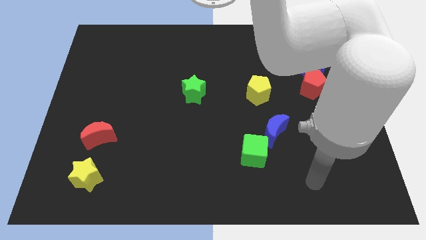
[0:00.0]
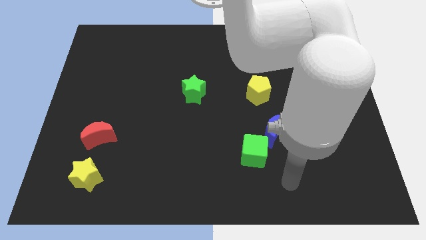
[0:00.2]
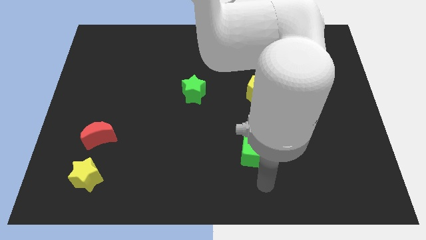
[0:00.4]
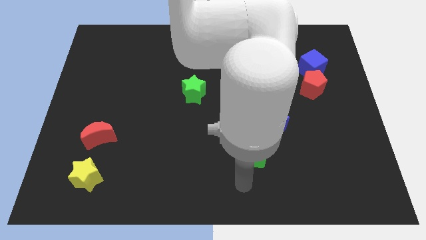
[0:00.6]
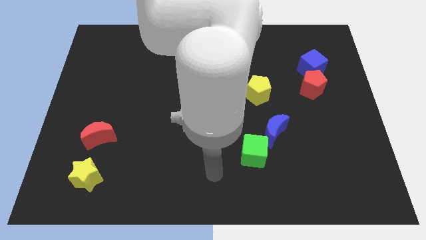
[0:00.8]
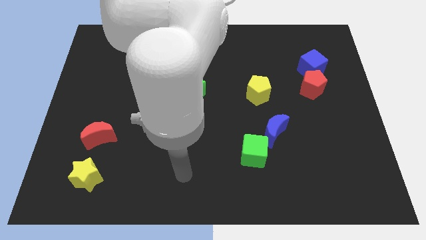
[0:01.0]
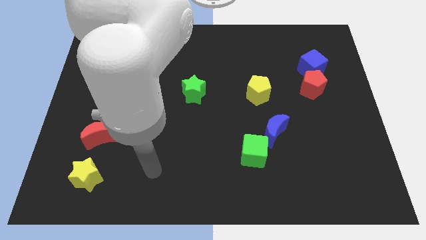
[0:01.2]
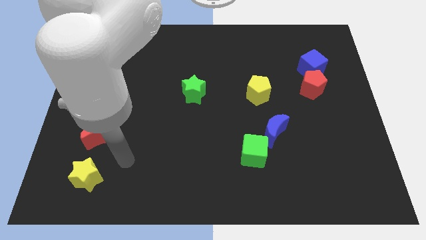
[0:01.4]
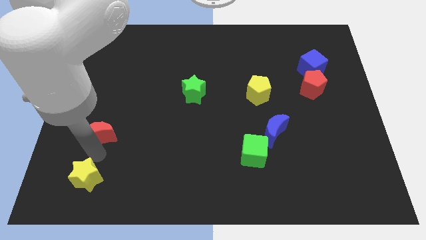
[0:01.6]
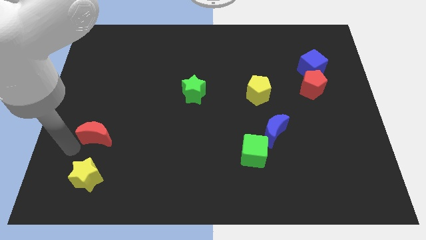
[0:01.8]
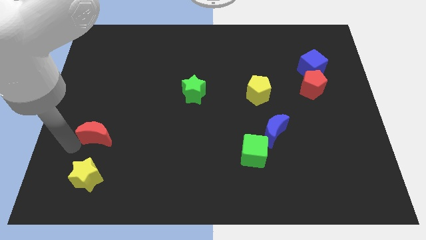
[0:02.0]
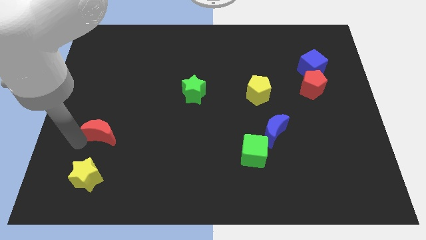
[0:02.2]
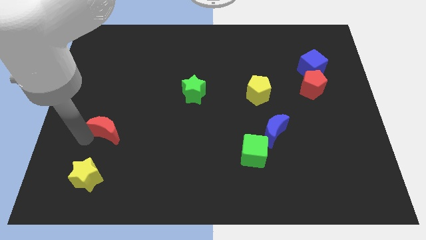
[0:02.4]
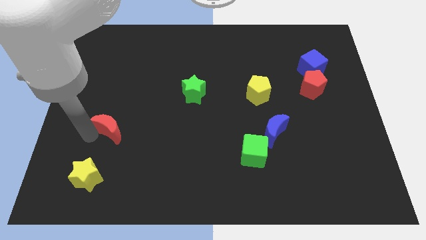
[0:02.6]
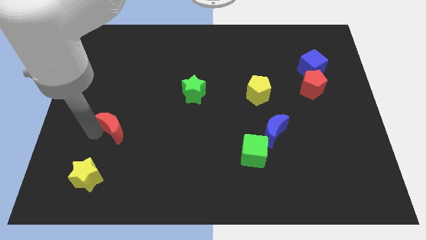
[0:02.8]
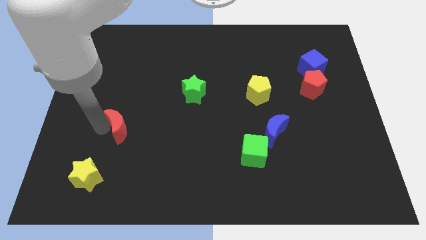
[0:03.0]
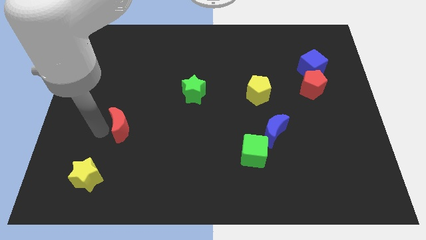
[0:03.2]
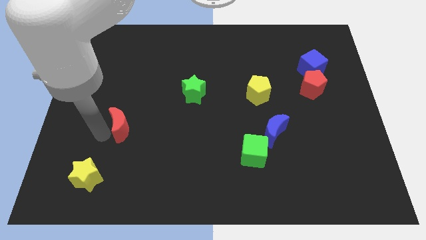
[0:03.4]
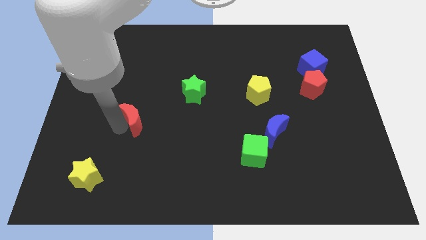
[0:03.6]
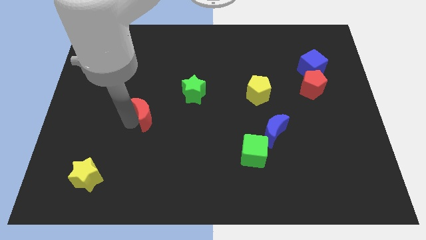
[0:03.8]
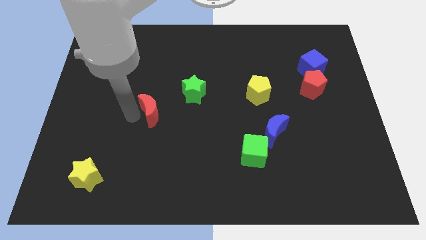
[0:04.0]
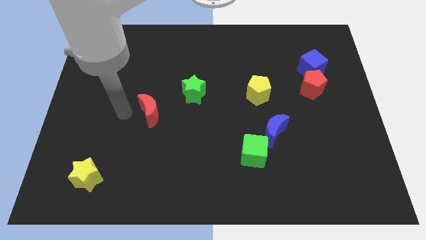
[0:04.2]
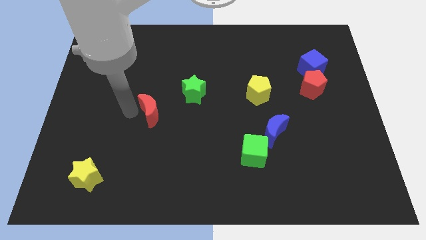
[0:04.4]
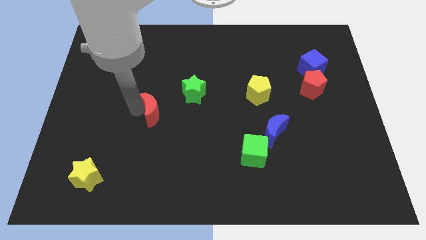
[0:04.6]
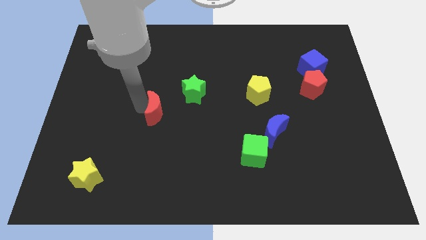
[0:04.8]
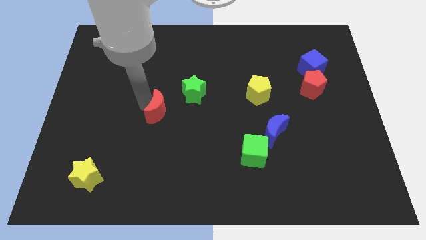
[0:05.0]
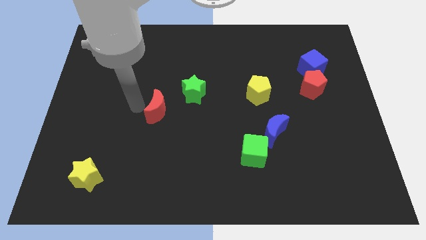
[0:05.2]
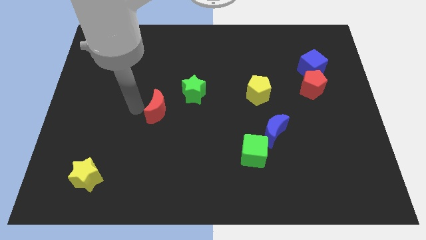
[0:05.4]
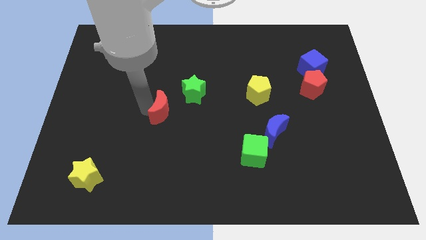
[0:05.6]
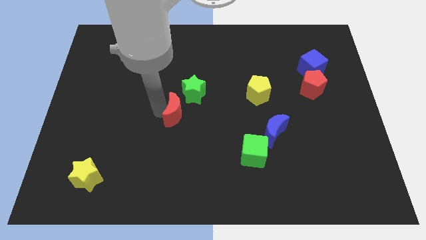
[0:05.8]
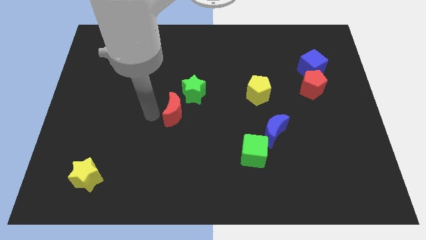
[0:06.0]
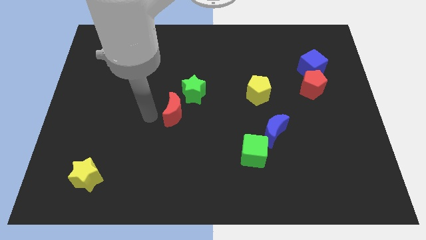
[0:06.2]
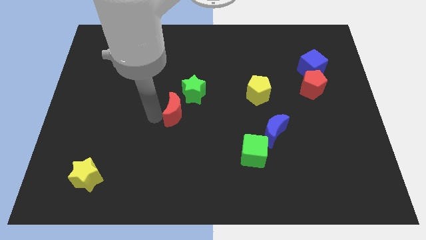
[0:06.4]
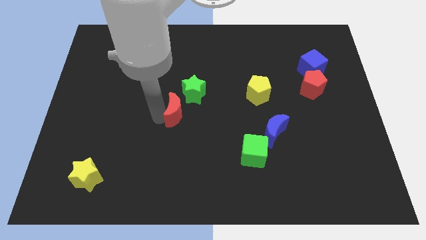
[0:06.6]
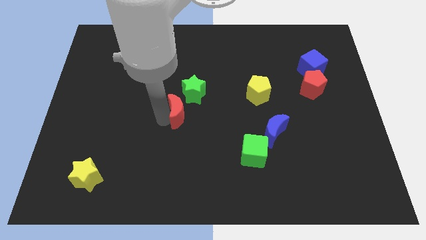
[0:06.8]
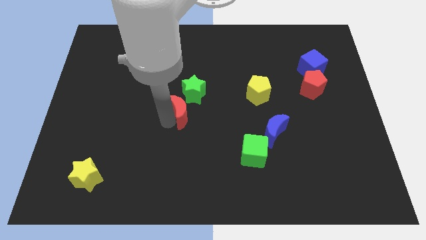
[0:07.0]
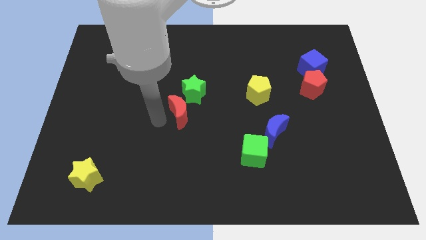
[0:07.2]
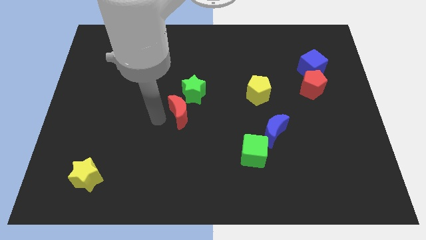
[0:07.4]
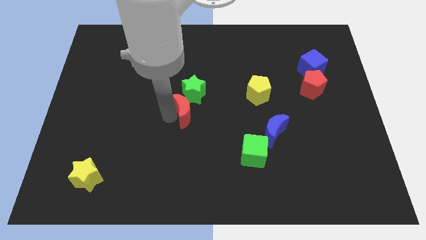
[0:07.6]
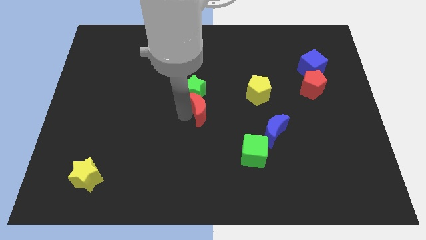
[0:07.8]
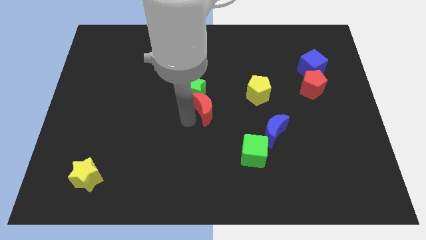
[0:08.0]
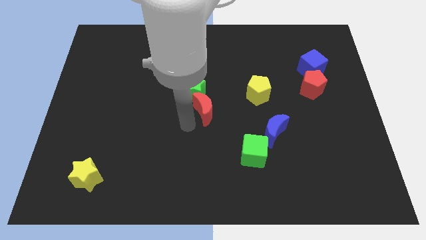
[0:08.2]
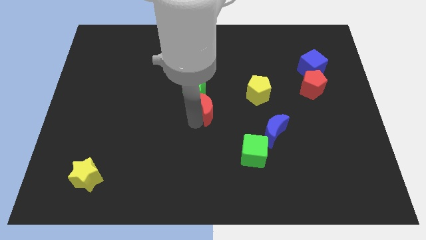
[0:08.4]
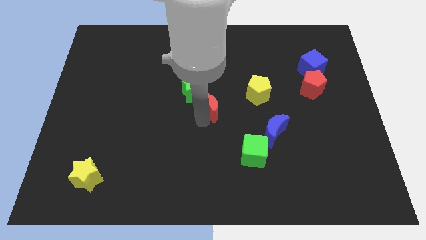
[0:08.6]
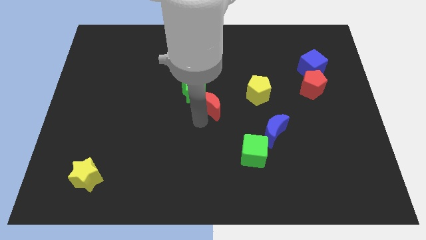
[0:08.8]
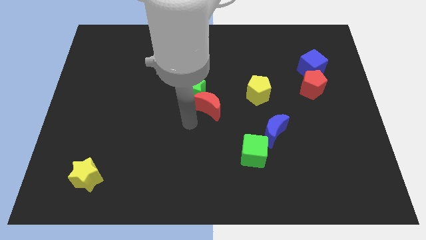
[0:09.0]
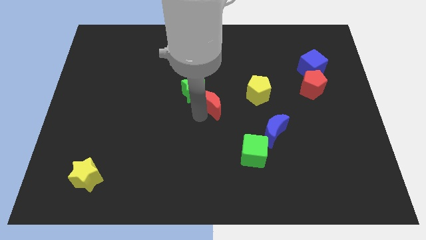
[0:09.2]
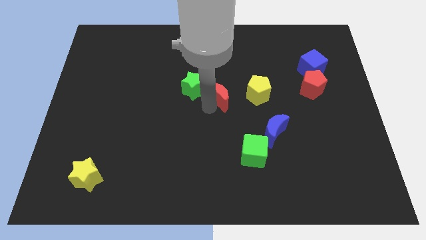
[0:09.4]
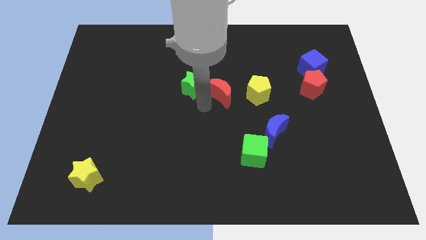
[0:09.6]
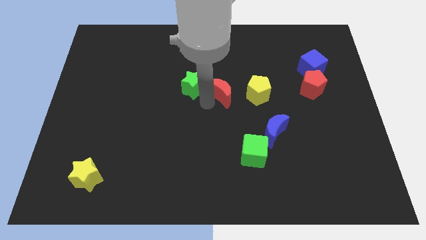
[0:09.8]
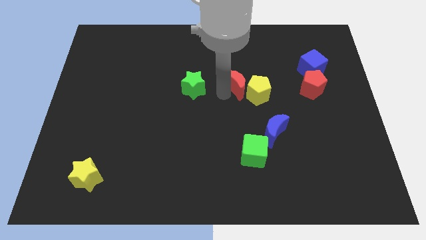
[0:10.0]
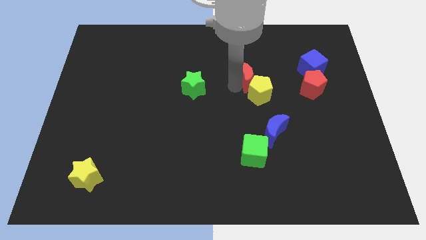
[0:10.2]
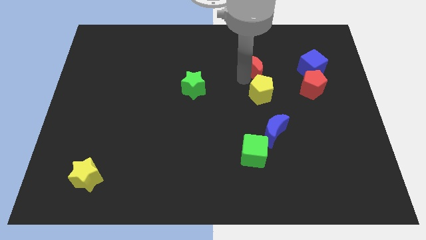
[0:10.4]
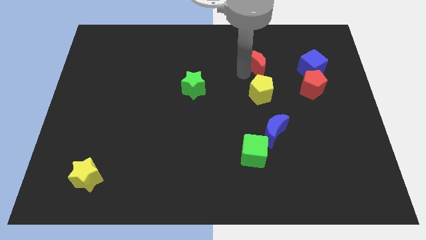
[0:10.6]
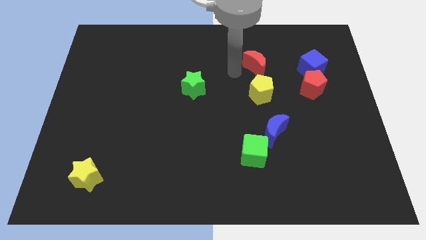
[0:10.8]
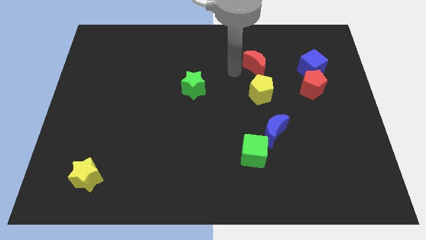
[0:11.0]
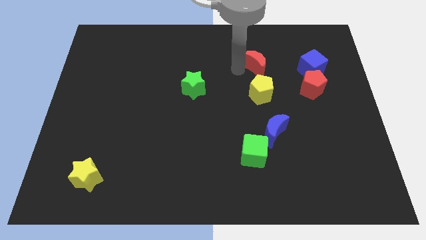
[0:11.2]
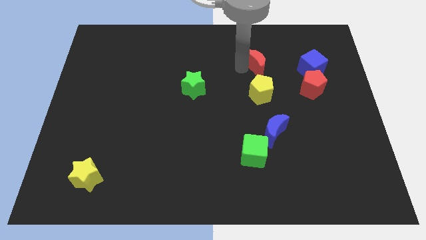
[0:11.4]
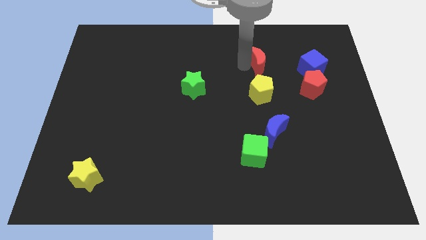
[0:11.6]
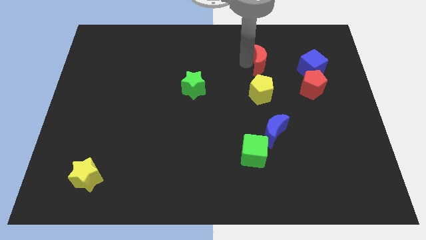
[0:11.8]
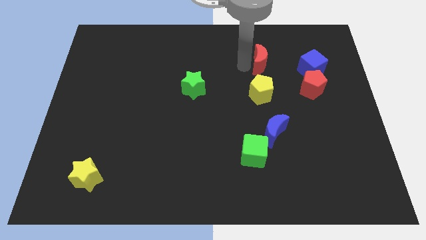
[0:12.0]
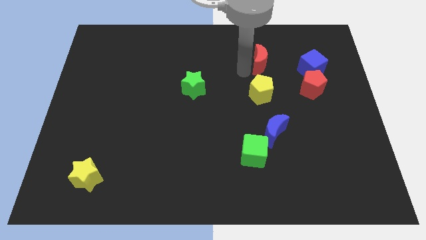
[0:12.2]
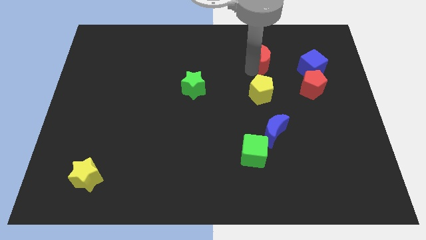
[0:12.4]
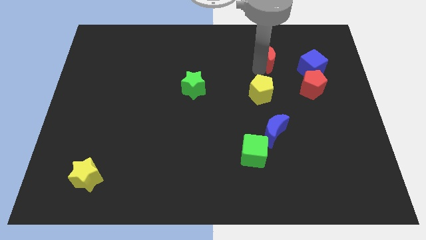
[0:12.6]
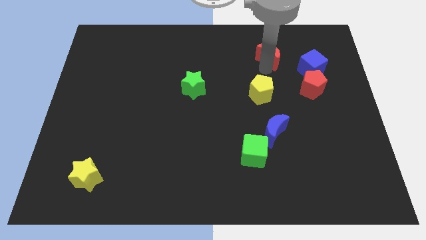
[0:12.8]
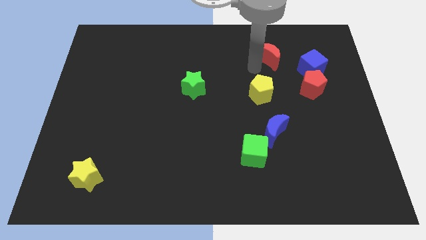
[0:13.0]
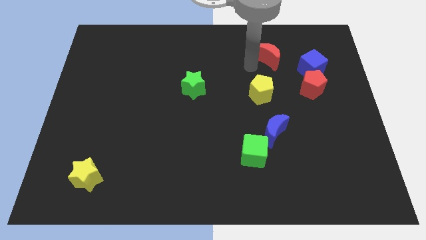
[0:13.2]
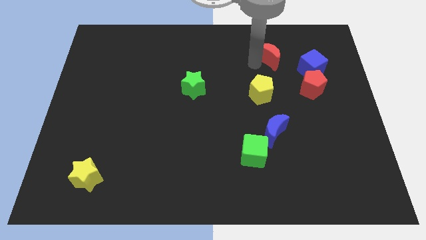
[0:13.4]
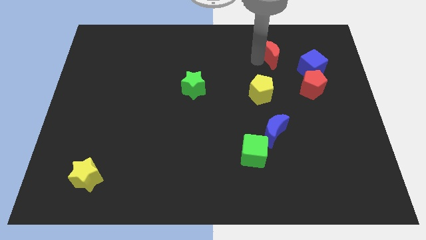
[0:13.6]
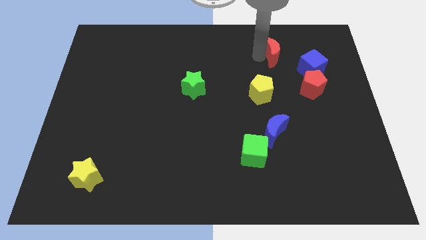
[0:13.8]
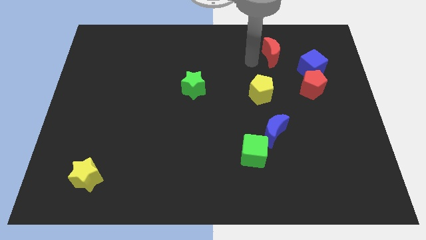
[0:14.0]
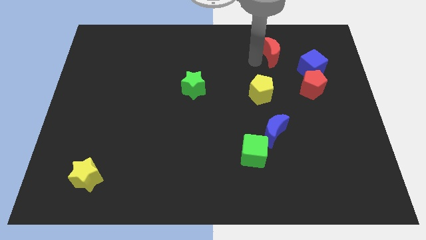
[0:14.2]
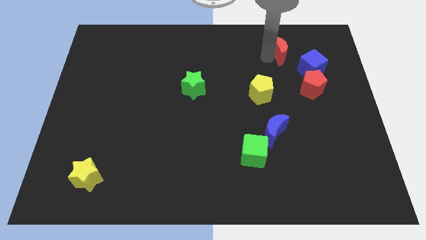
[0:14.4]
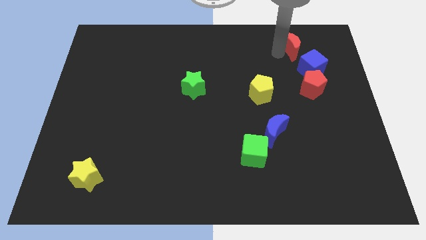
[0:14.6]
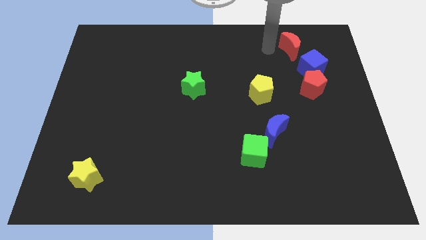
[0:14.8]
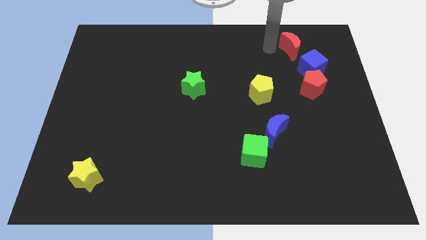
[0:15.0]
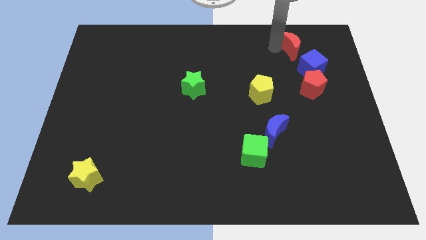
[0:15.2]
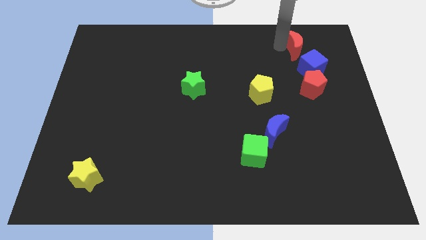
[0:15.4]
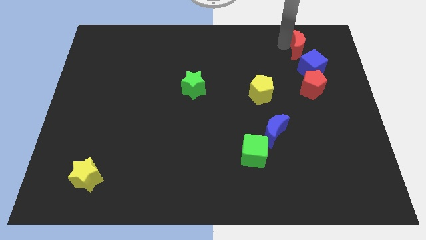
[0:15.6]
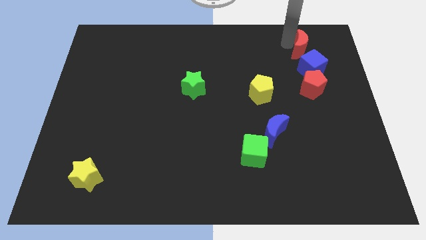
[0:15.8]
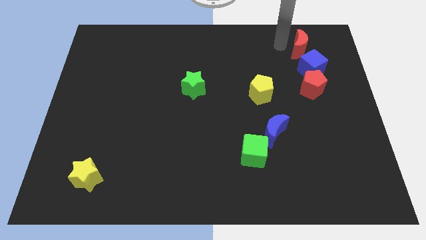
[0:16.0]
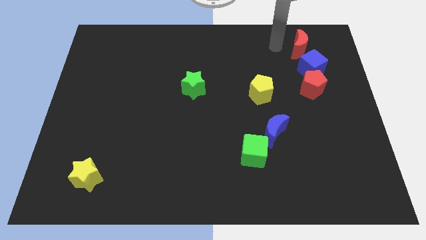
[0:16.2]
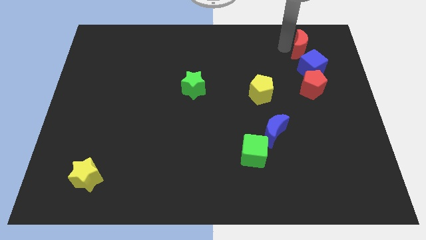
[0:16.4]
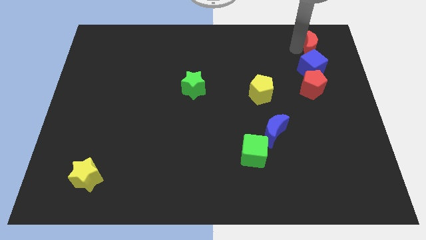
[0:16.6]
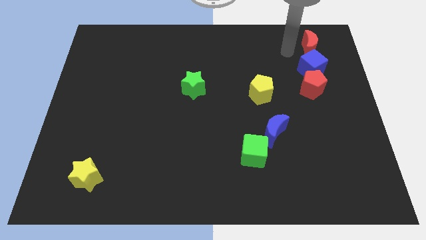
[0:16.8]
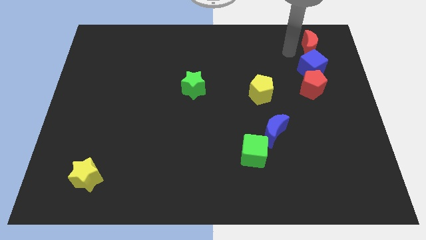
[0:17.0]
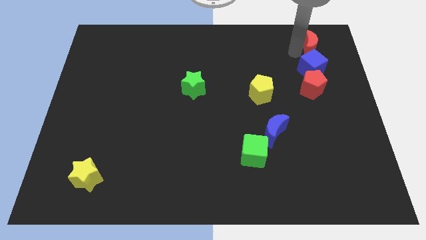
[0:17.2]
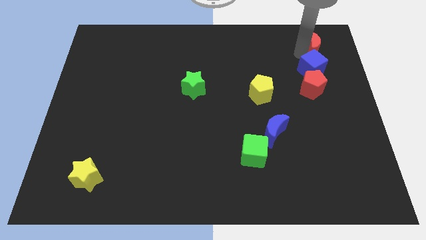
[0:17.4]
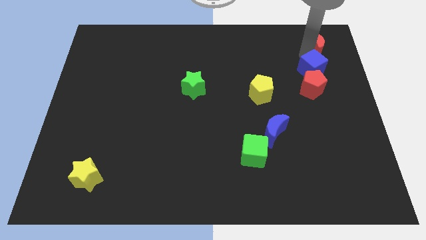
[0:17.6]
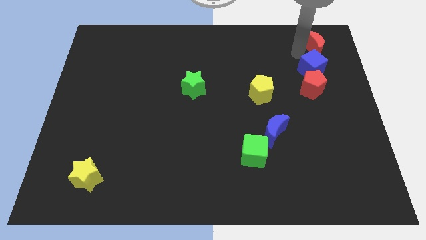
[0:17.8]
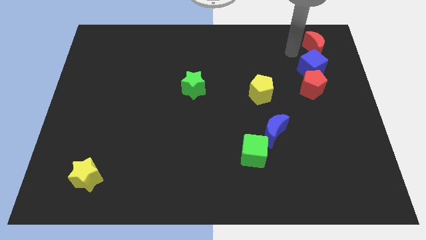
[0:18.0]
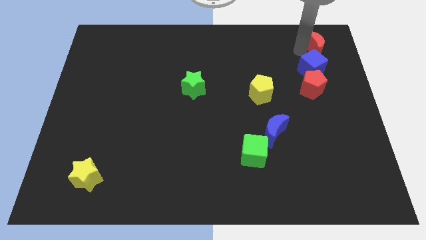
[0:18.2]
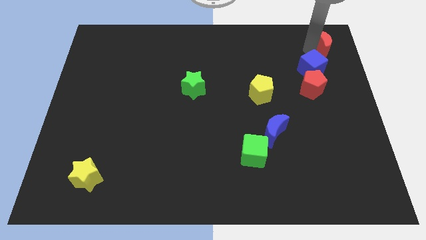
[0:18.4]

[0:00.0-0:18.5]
slide the red moon to the upper right corner
